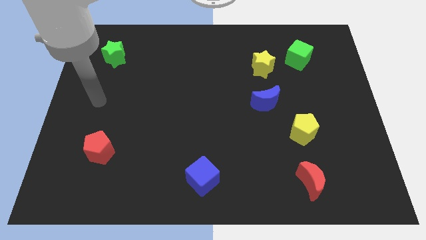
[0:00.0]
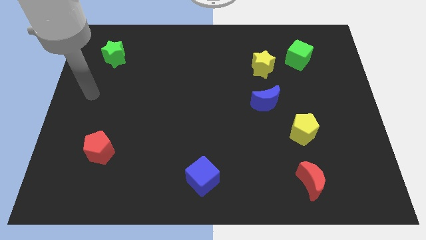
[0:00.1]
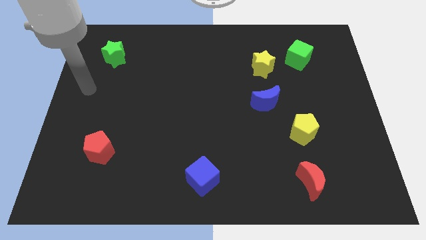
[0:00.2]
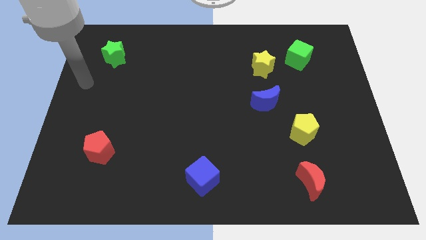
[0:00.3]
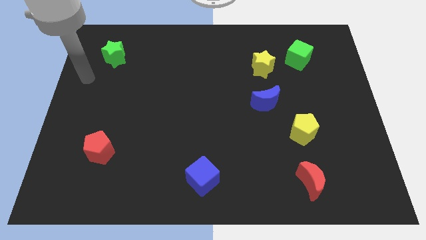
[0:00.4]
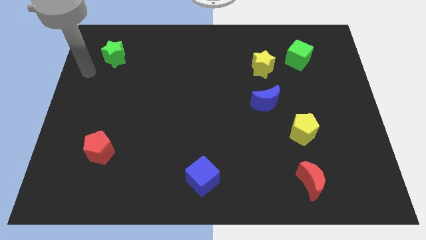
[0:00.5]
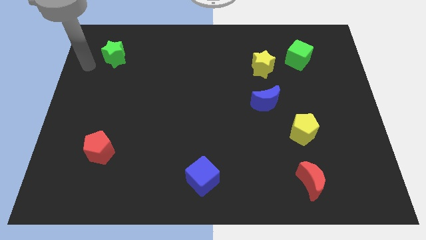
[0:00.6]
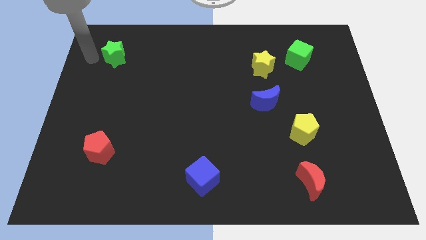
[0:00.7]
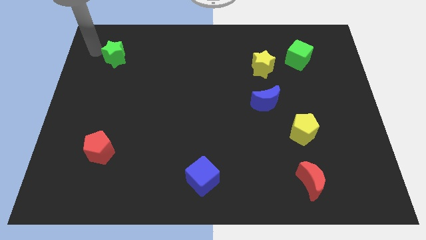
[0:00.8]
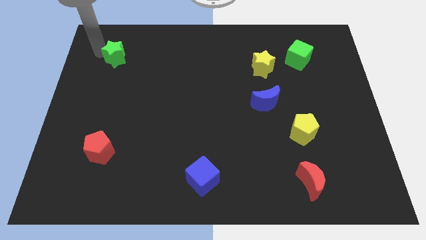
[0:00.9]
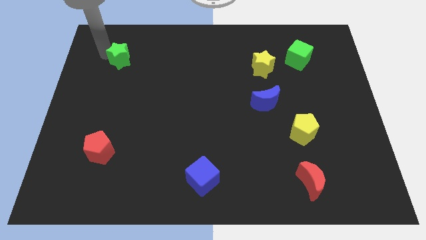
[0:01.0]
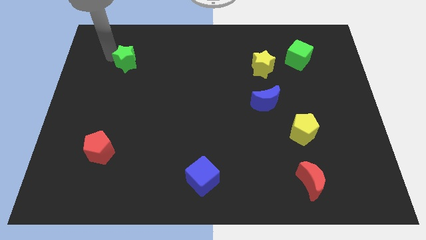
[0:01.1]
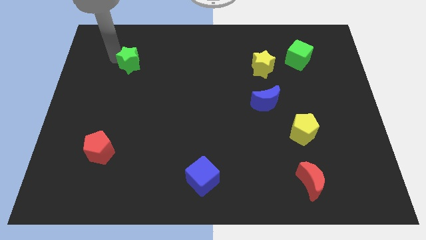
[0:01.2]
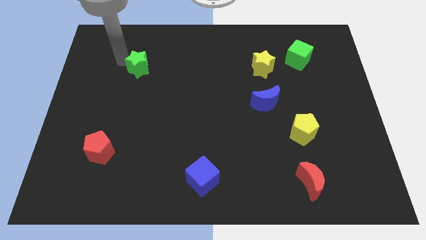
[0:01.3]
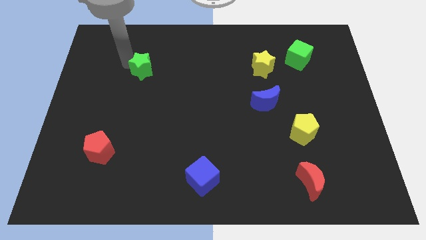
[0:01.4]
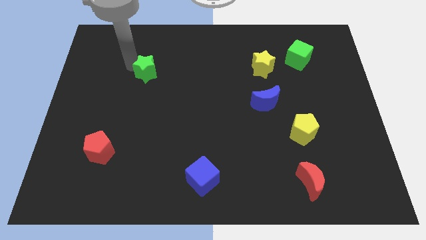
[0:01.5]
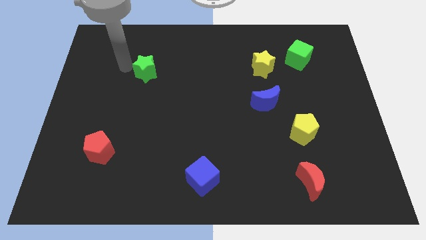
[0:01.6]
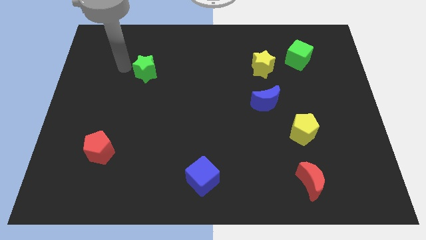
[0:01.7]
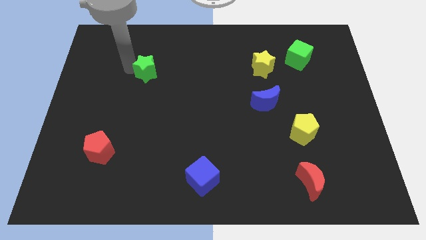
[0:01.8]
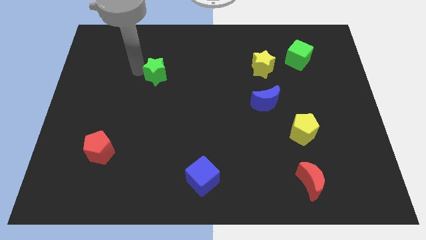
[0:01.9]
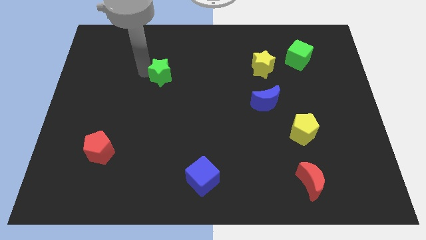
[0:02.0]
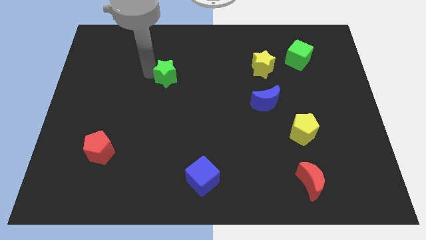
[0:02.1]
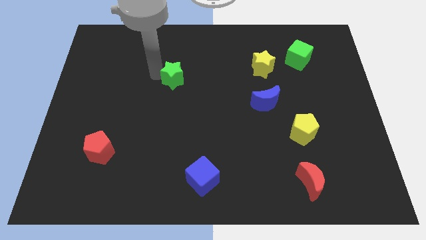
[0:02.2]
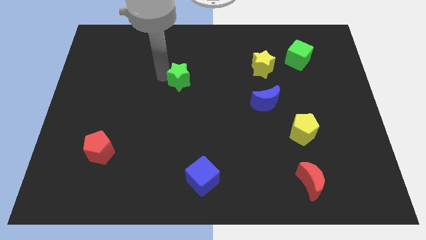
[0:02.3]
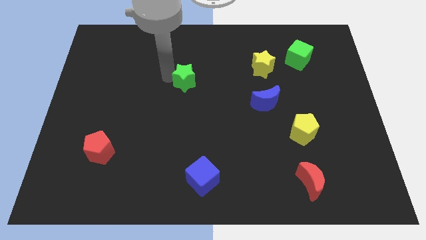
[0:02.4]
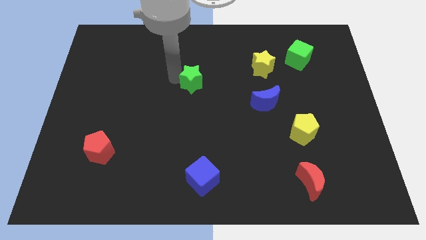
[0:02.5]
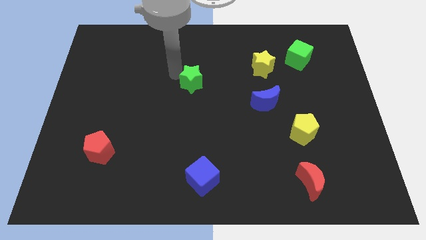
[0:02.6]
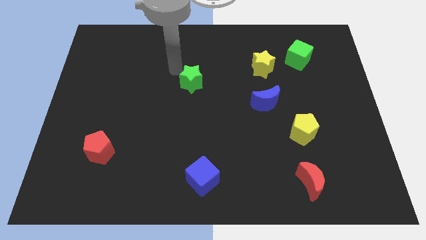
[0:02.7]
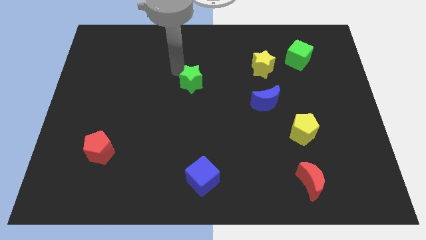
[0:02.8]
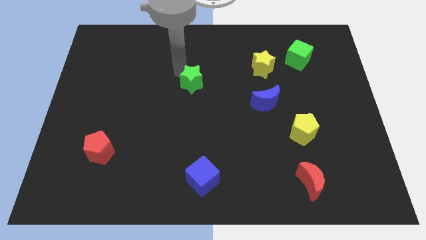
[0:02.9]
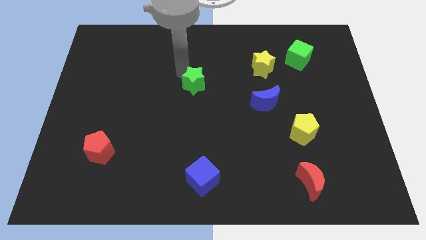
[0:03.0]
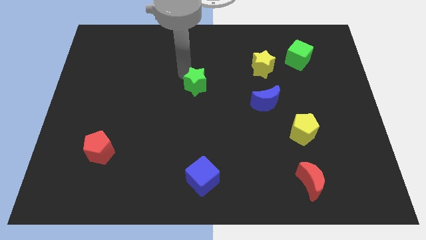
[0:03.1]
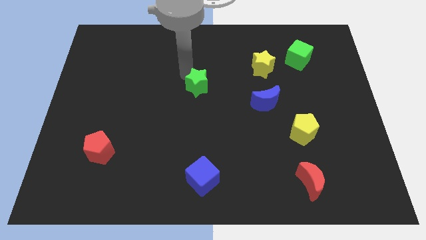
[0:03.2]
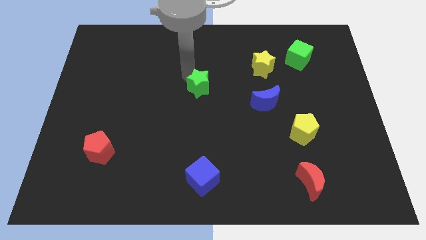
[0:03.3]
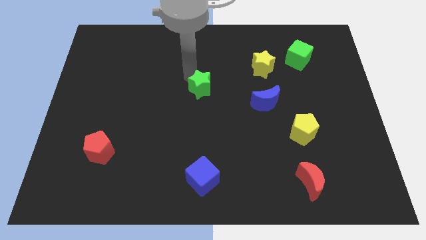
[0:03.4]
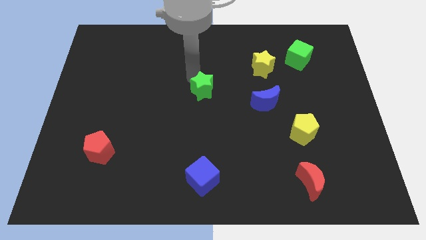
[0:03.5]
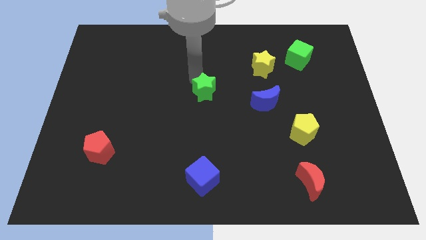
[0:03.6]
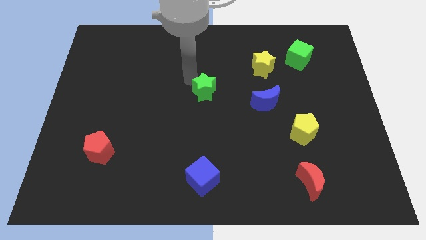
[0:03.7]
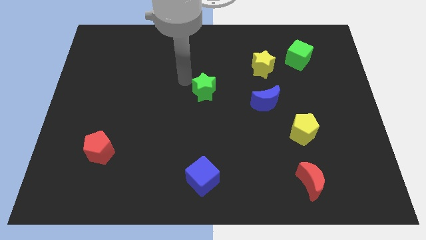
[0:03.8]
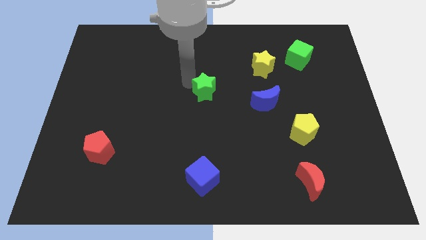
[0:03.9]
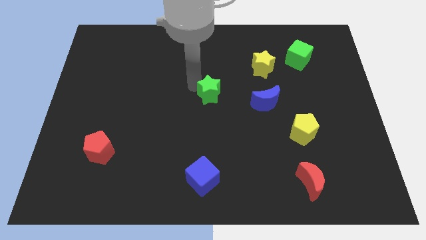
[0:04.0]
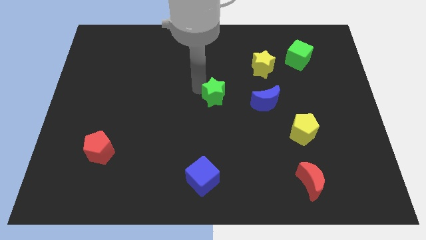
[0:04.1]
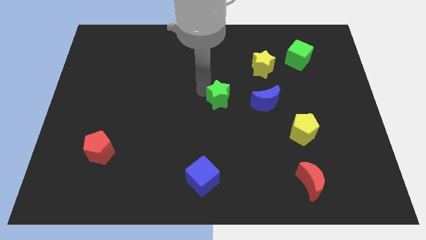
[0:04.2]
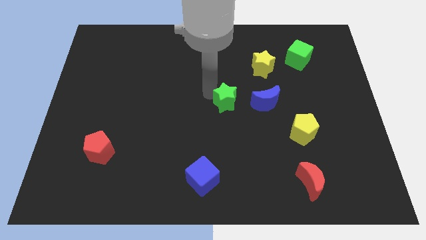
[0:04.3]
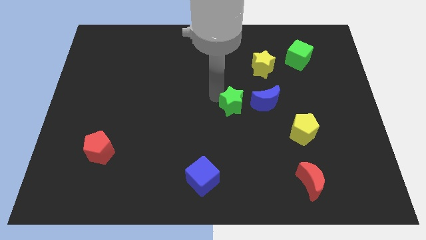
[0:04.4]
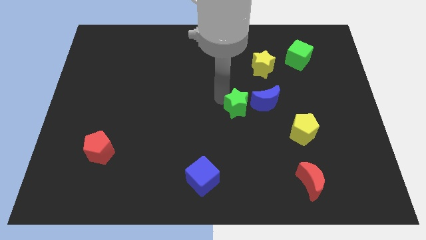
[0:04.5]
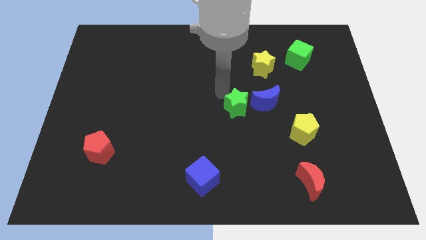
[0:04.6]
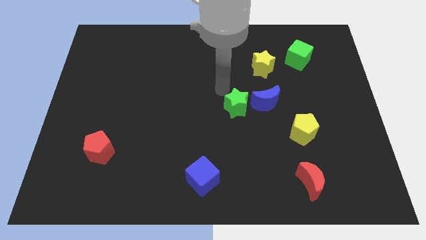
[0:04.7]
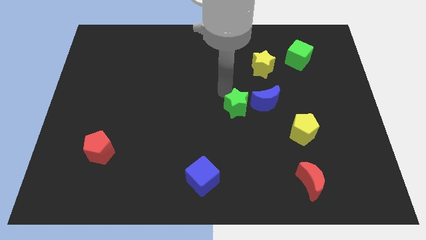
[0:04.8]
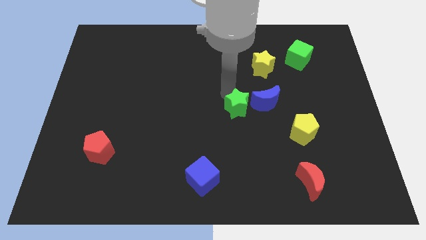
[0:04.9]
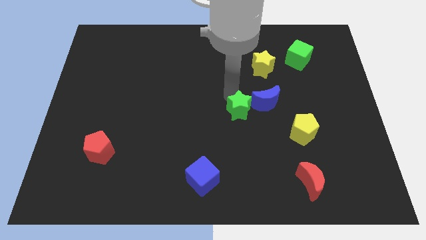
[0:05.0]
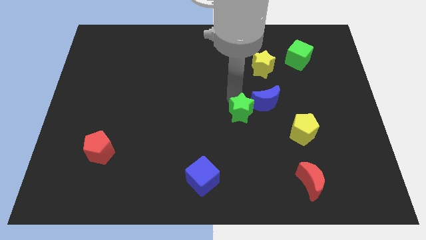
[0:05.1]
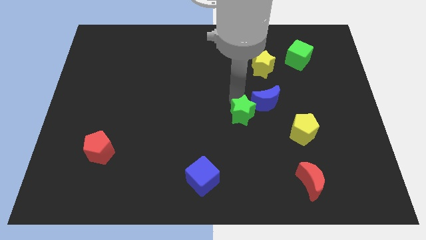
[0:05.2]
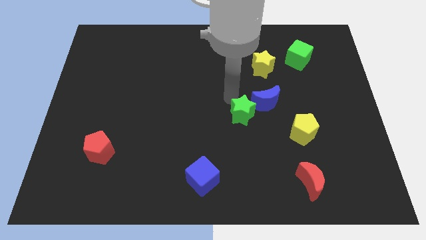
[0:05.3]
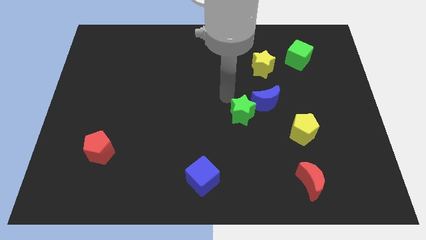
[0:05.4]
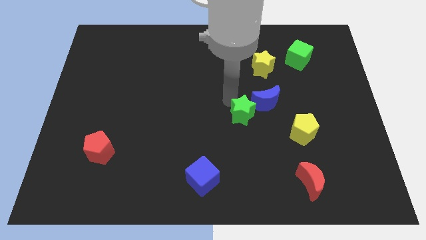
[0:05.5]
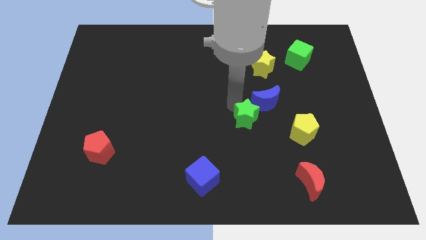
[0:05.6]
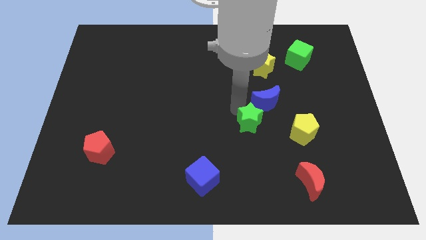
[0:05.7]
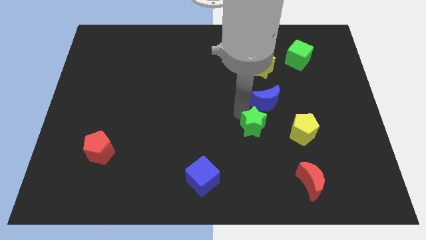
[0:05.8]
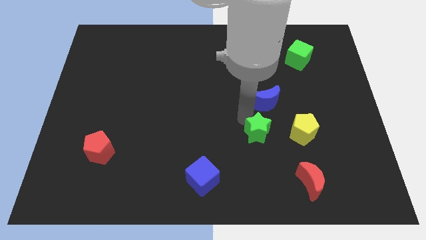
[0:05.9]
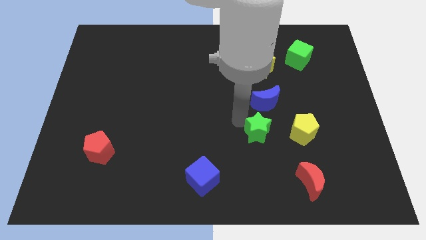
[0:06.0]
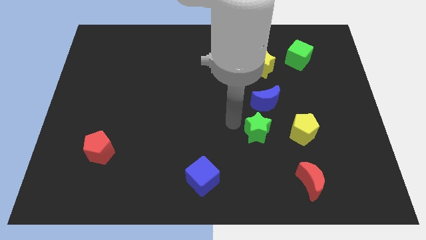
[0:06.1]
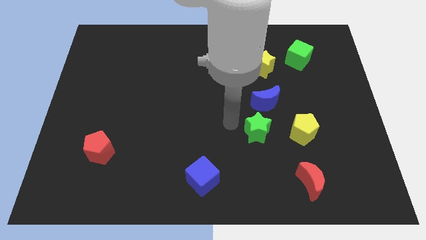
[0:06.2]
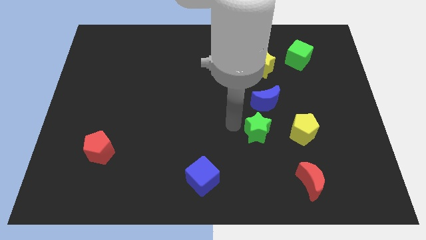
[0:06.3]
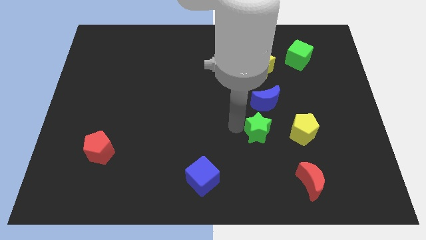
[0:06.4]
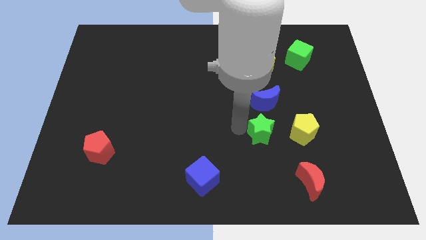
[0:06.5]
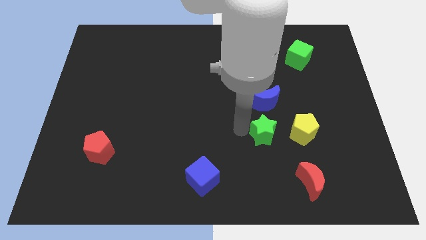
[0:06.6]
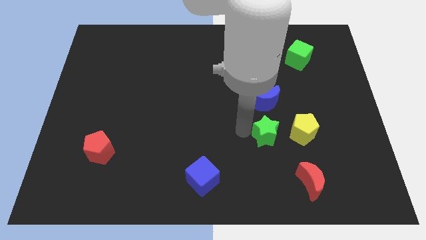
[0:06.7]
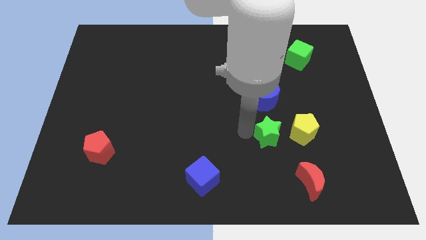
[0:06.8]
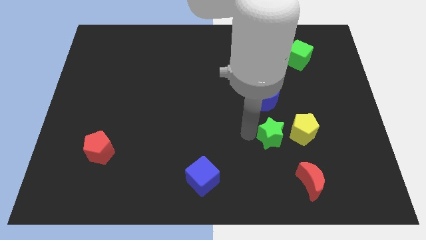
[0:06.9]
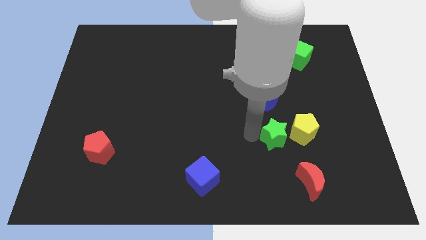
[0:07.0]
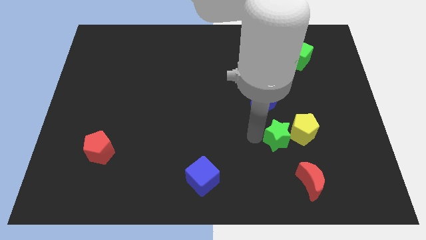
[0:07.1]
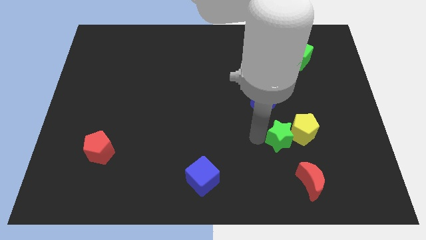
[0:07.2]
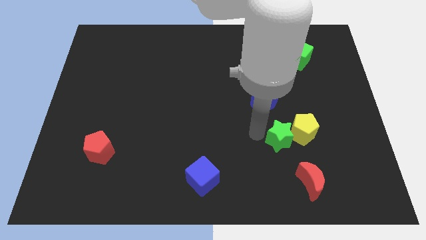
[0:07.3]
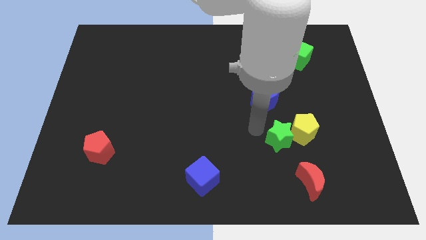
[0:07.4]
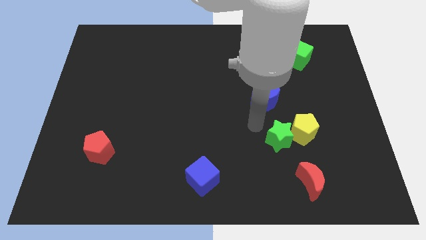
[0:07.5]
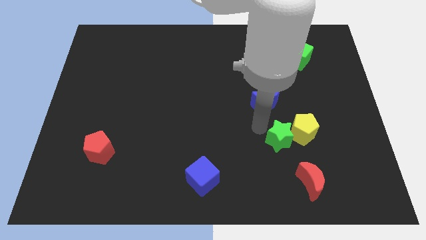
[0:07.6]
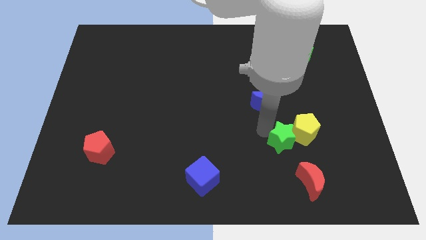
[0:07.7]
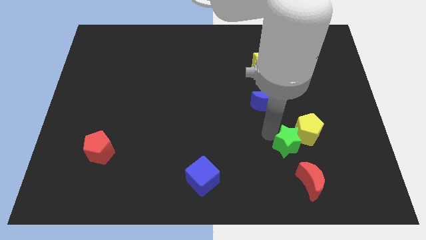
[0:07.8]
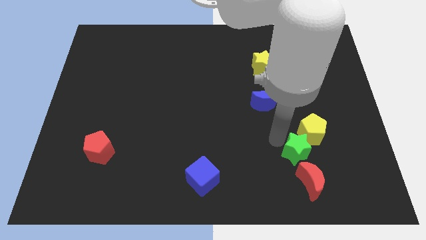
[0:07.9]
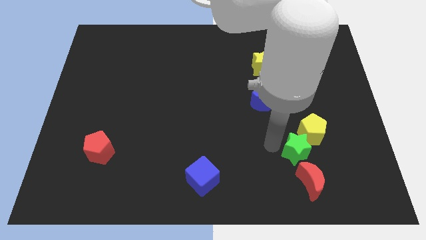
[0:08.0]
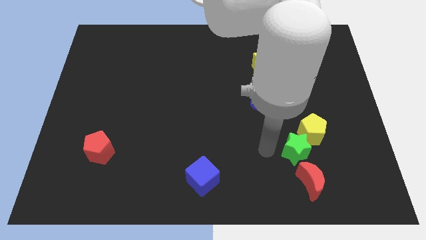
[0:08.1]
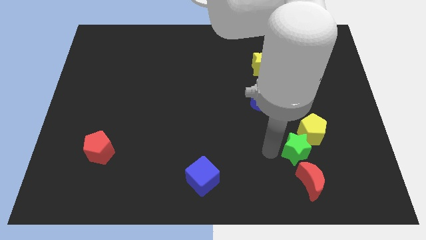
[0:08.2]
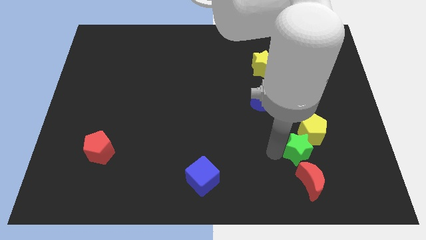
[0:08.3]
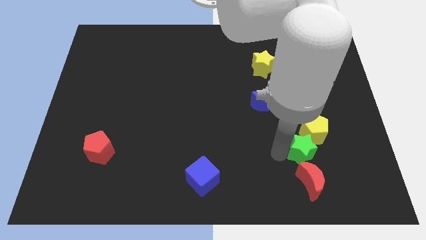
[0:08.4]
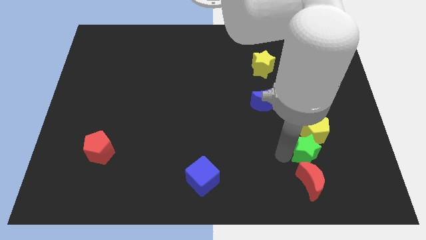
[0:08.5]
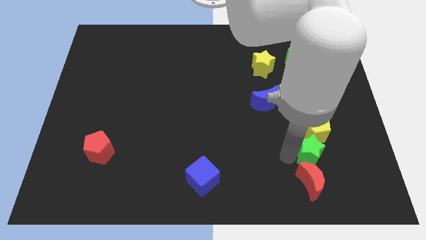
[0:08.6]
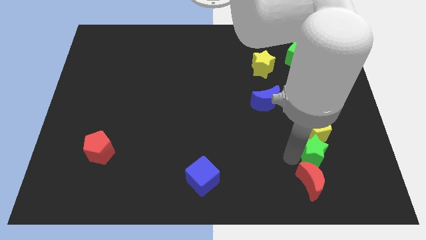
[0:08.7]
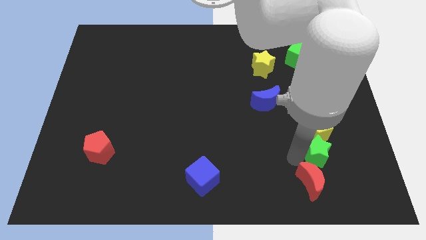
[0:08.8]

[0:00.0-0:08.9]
move the green star to the bottom right of the yellow pentagon
